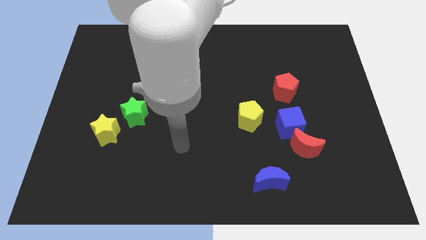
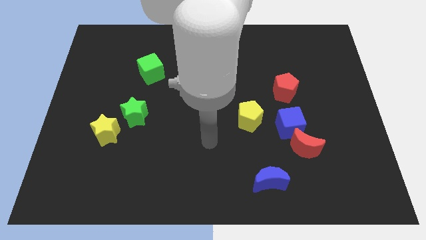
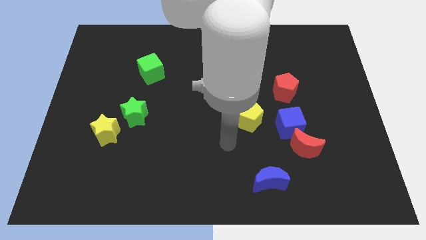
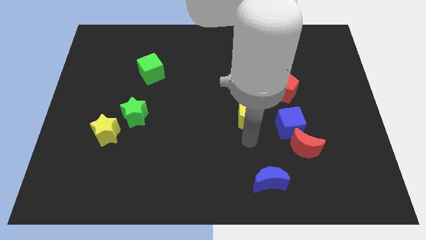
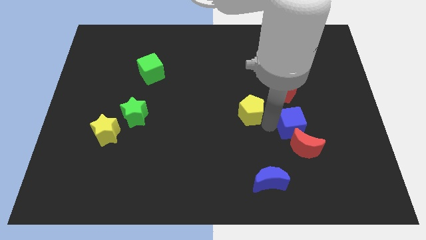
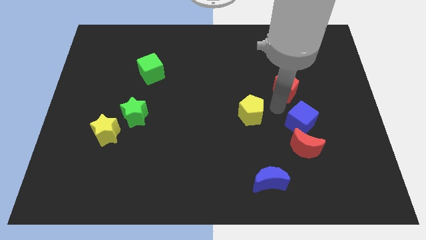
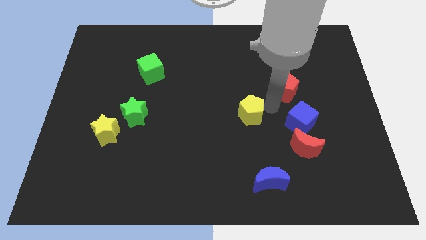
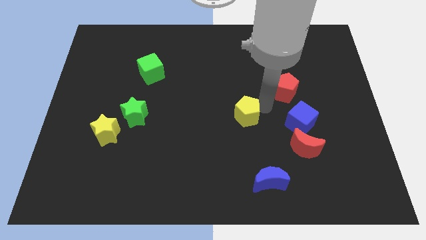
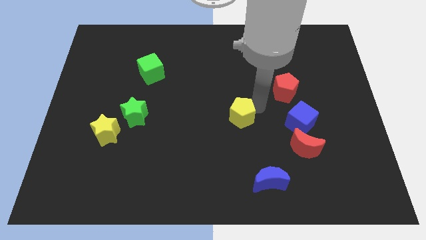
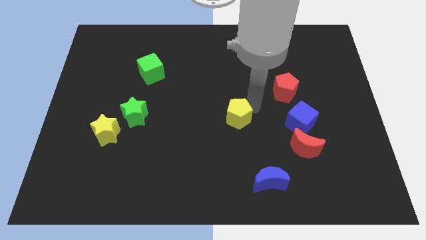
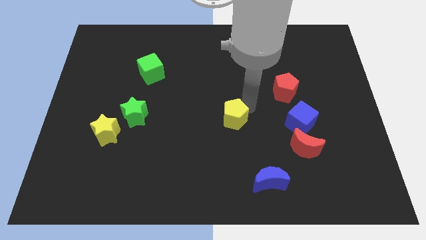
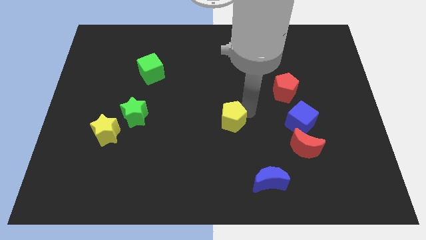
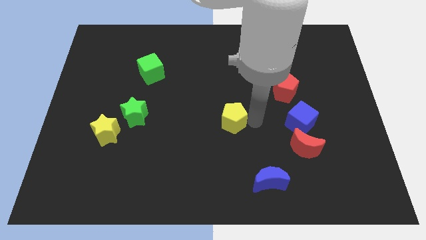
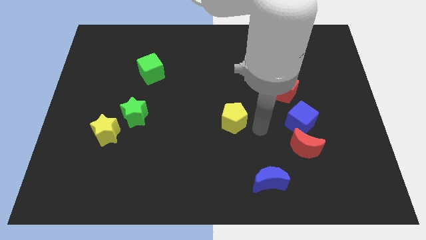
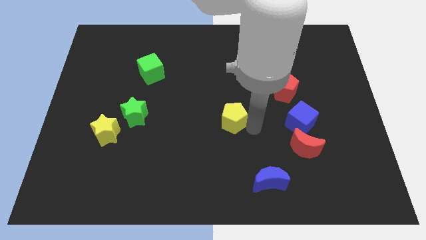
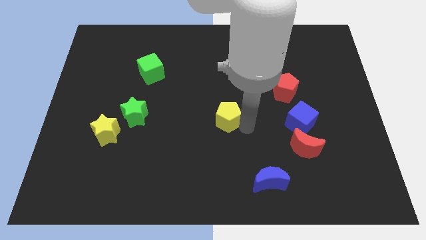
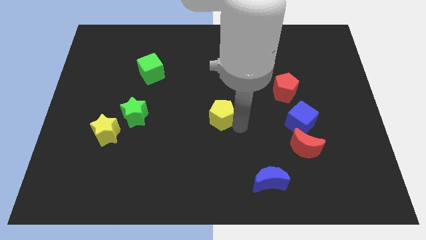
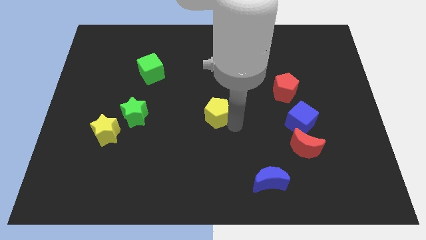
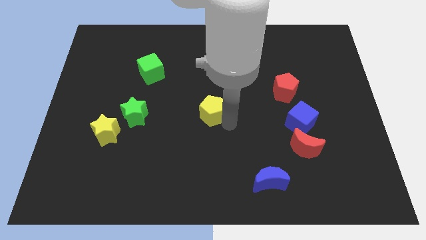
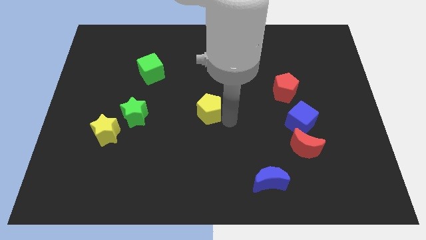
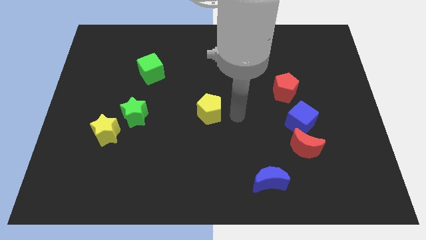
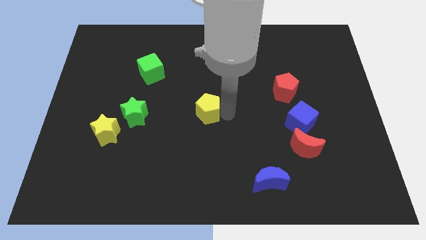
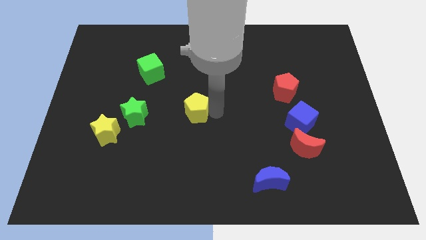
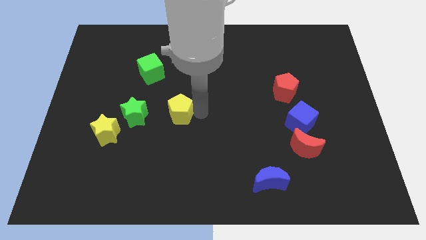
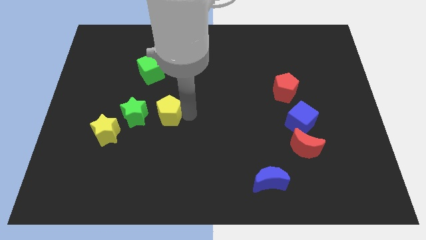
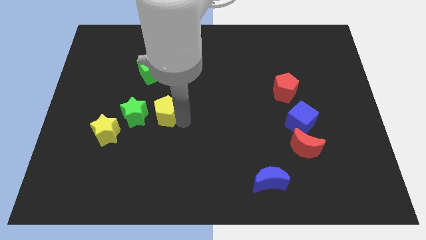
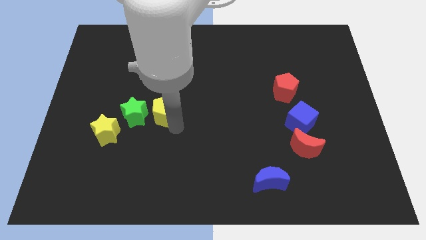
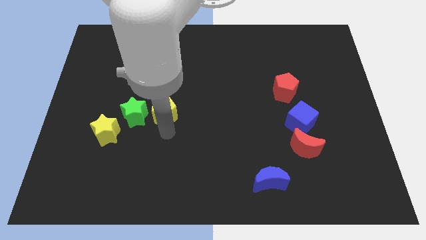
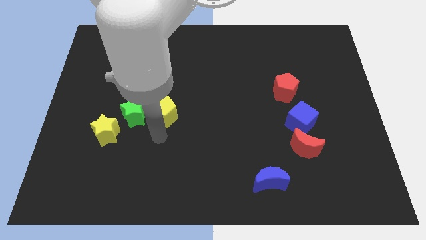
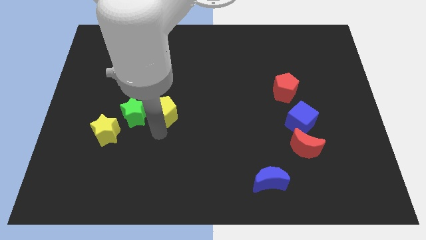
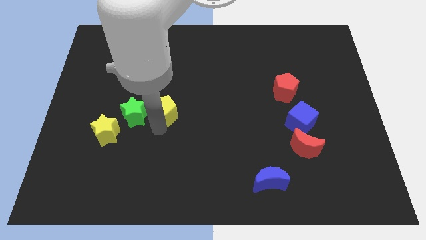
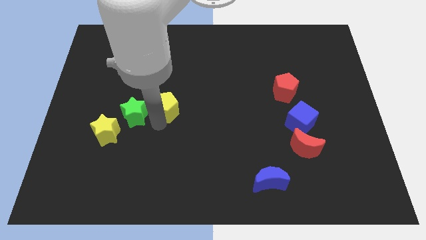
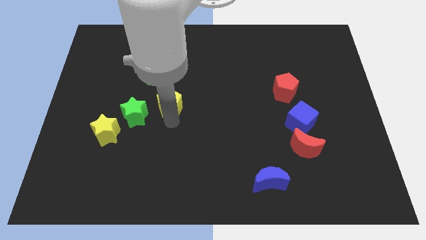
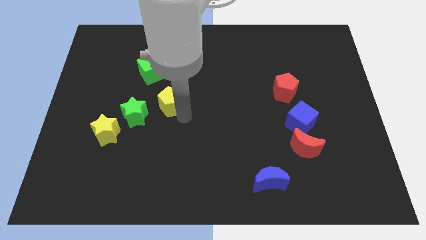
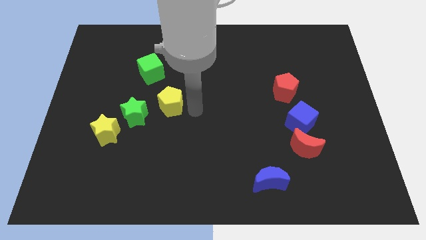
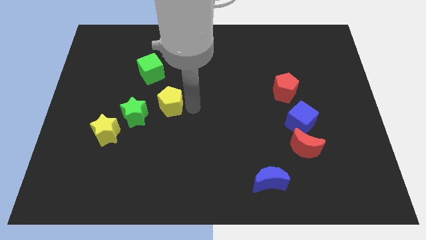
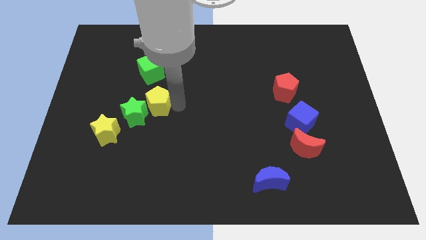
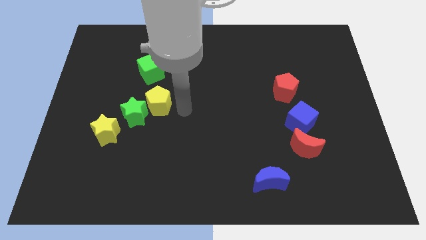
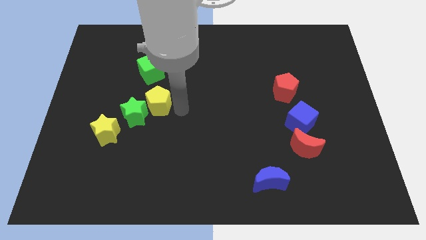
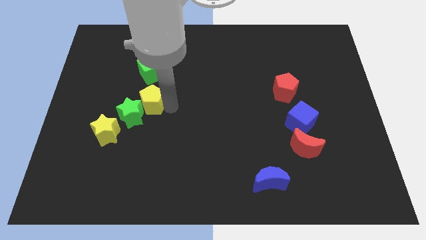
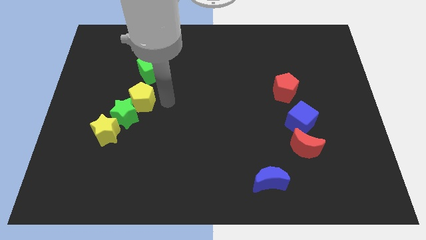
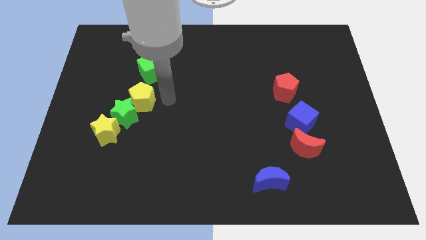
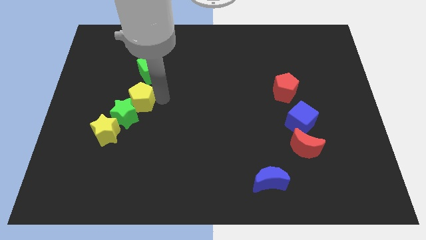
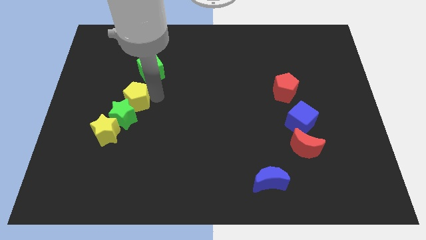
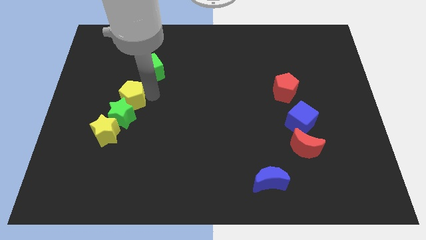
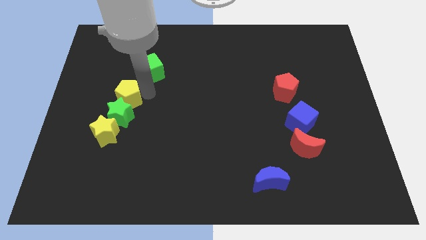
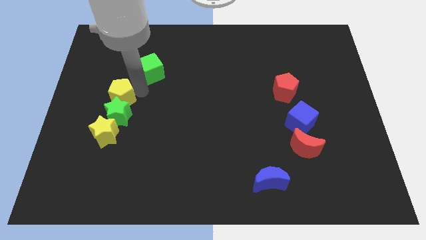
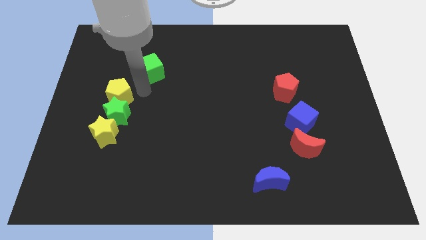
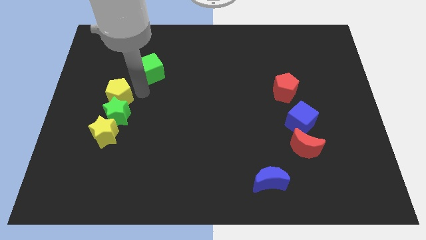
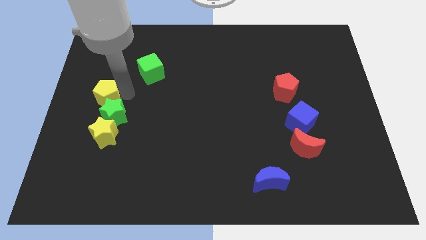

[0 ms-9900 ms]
put the yellow pentagon to the center left

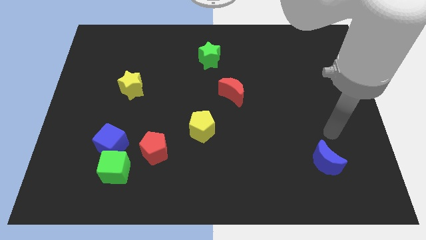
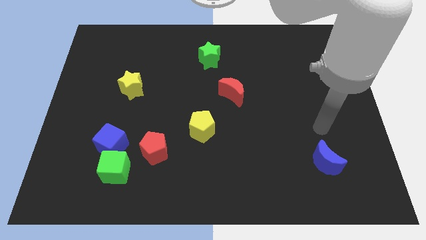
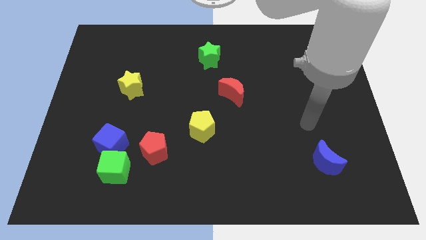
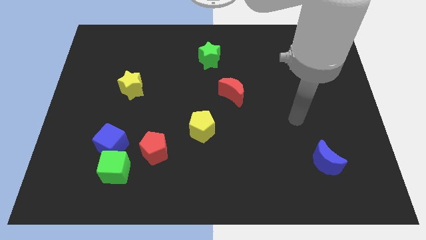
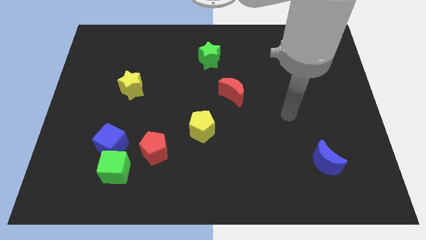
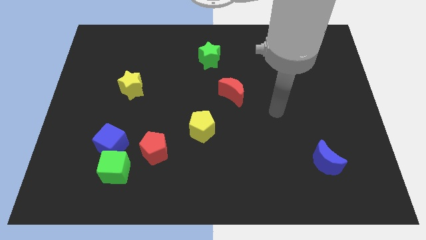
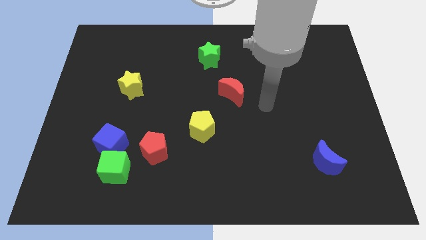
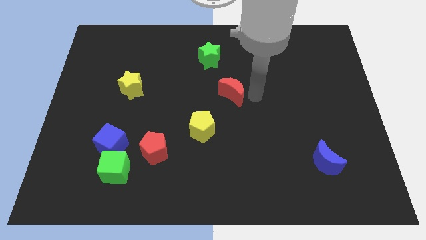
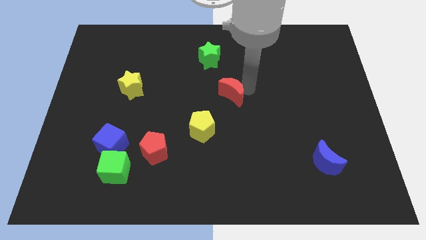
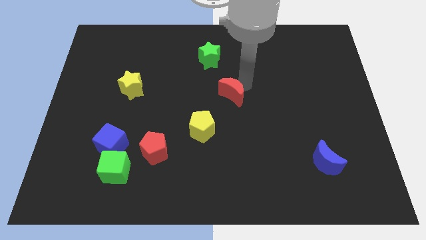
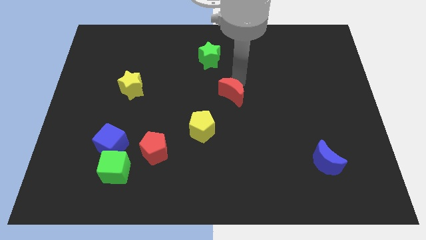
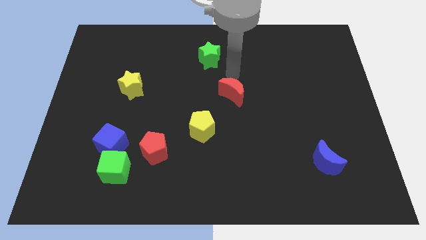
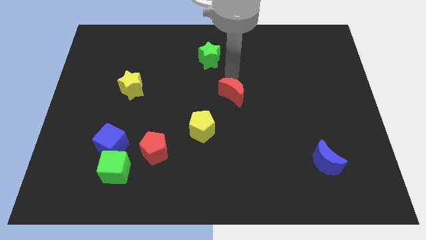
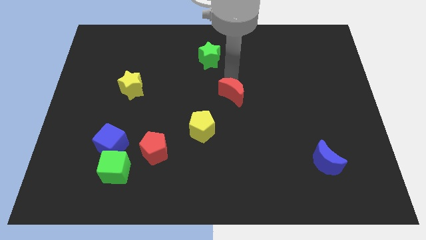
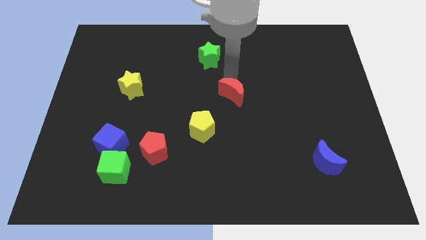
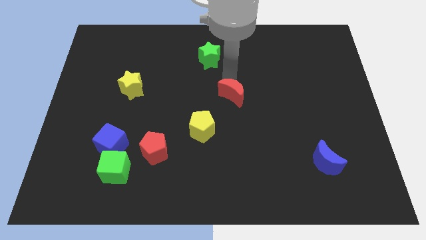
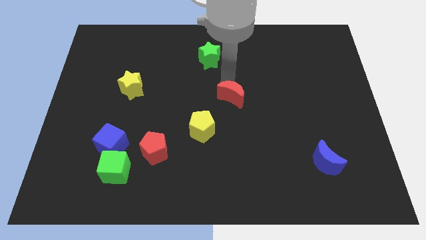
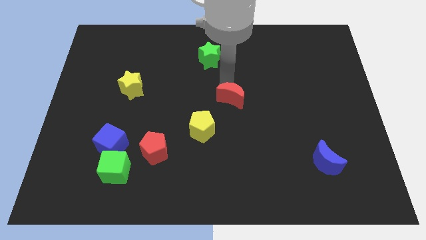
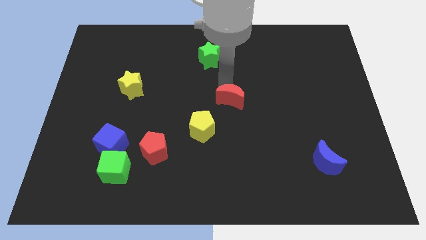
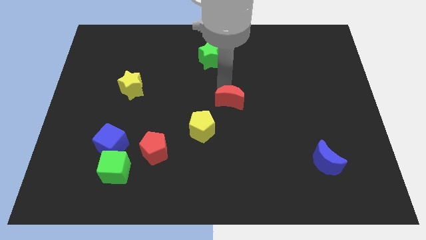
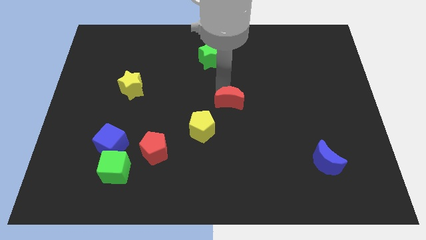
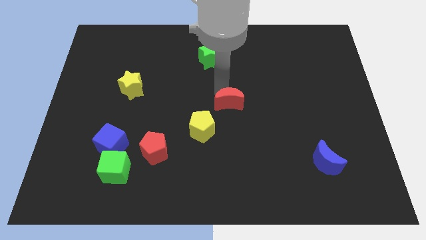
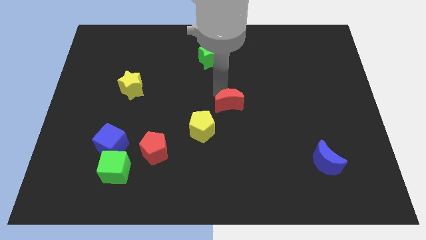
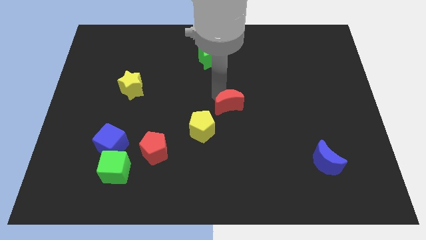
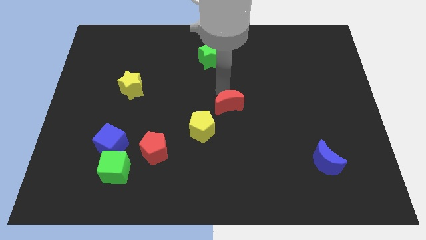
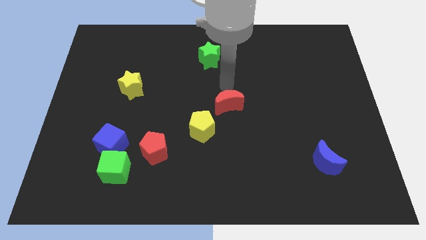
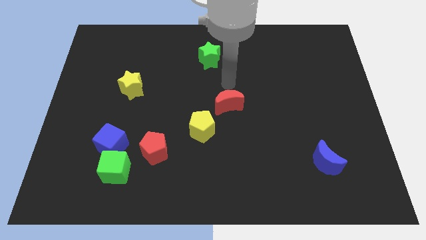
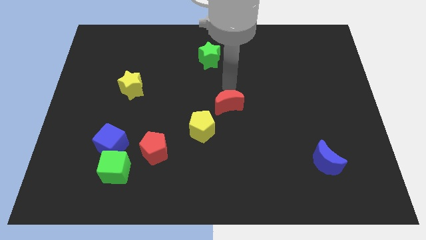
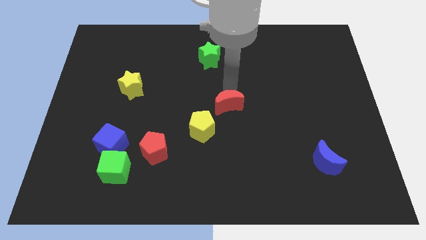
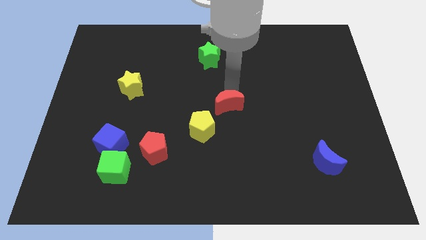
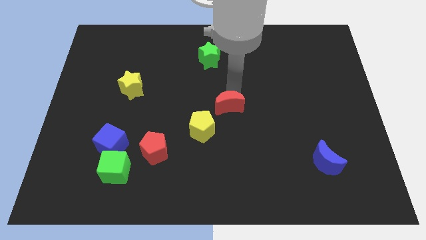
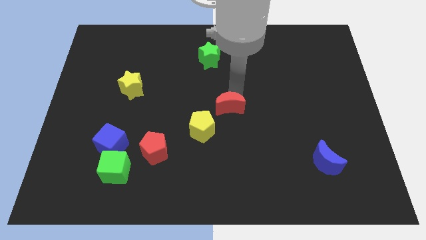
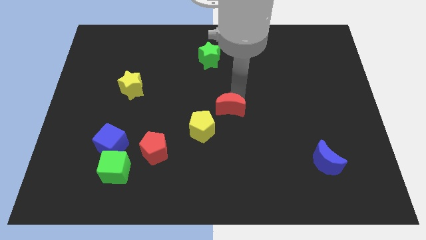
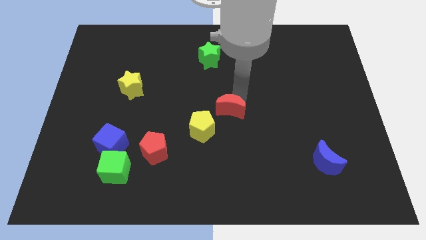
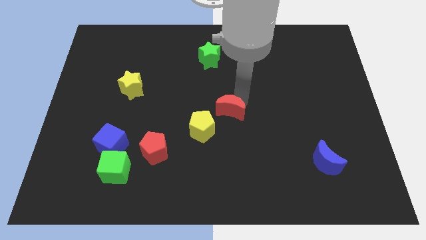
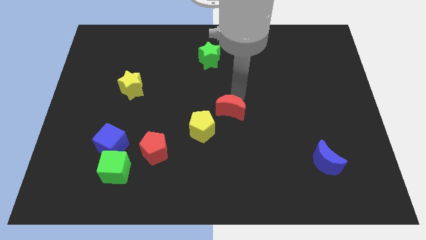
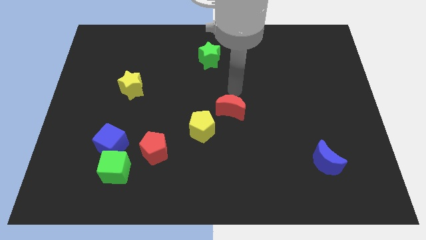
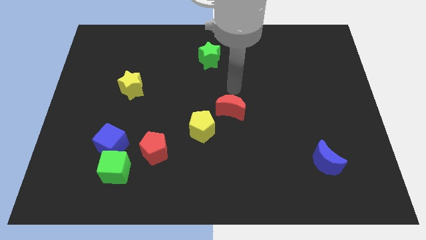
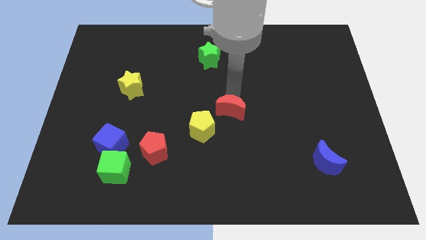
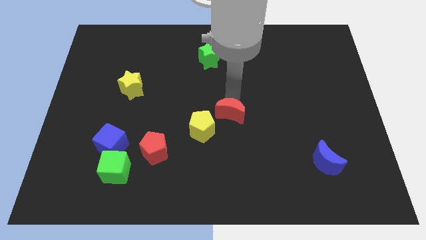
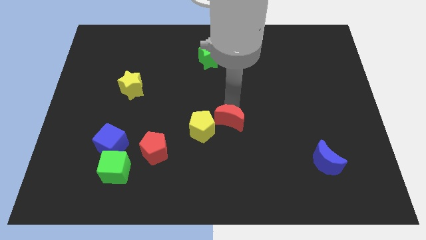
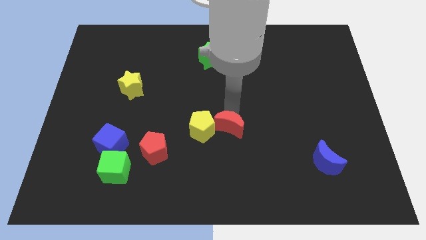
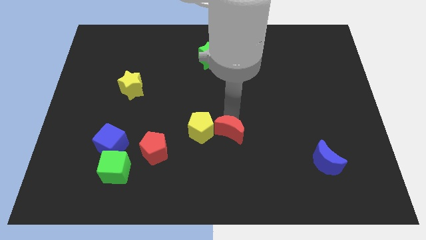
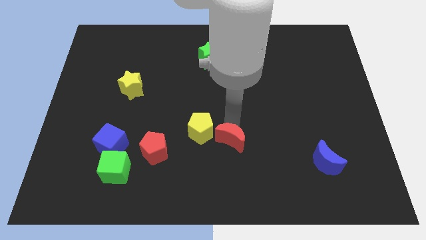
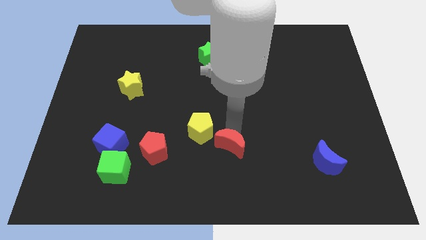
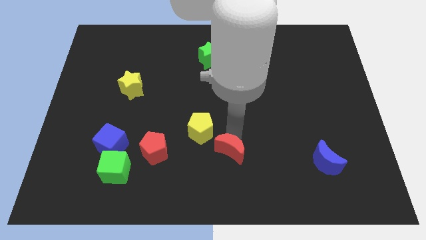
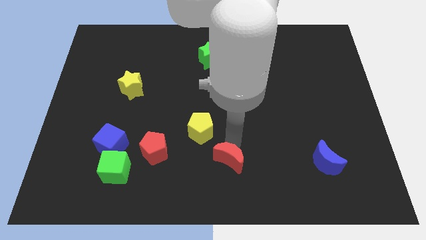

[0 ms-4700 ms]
put the red moon to the bottom side
